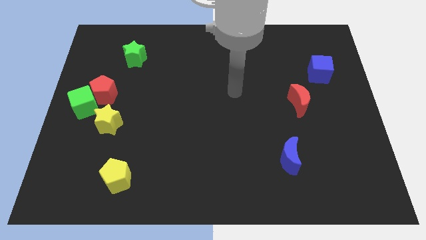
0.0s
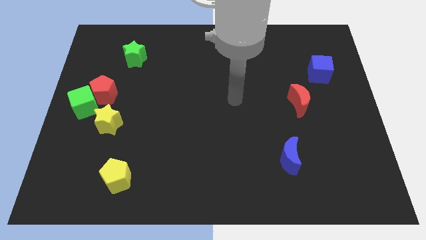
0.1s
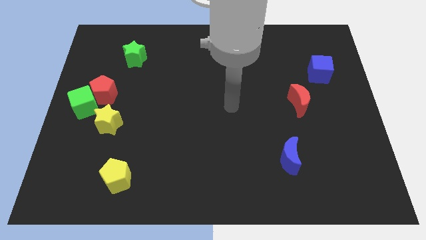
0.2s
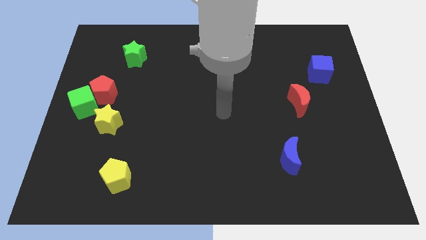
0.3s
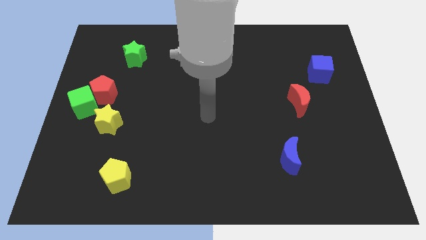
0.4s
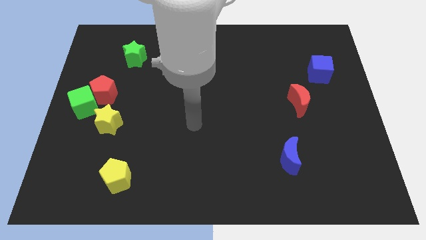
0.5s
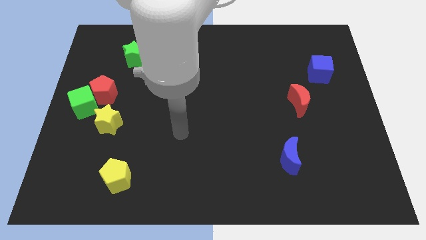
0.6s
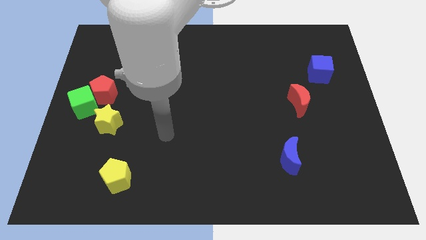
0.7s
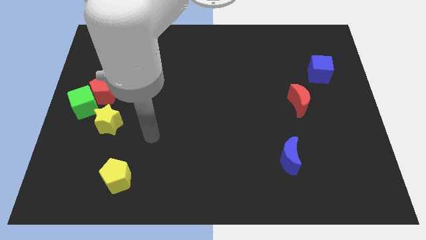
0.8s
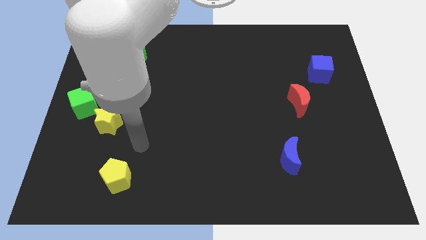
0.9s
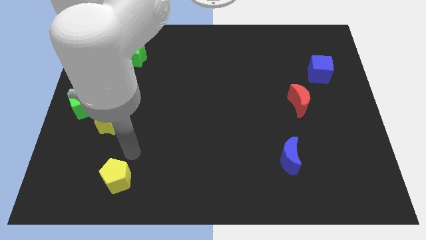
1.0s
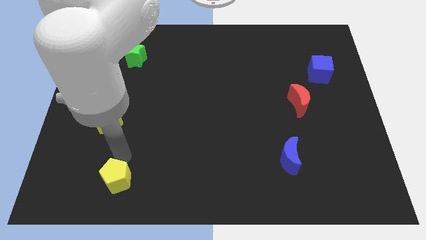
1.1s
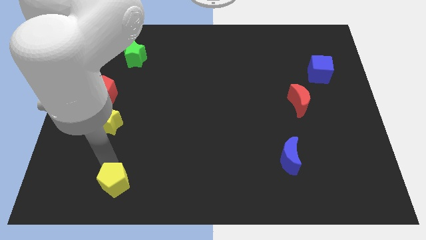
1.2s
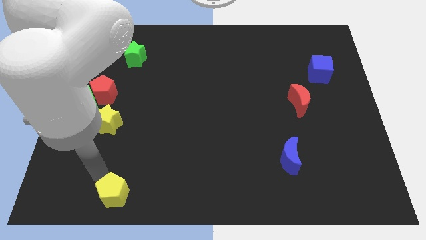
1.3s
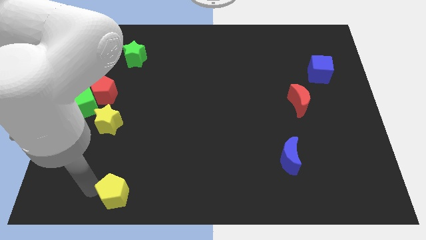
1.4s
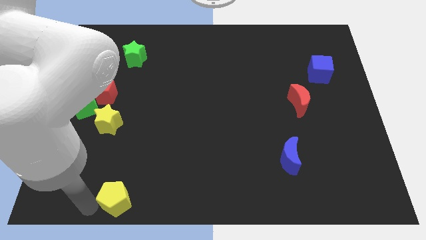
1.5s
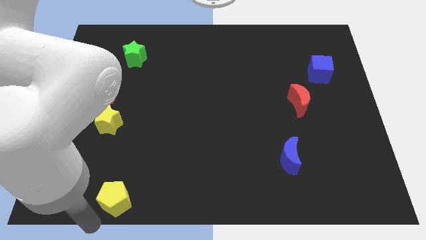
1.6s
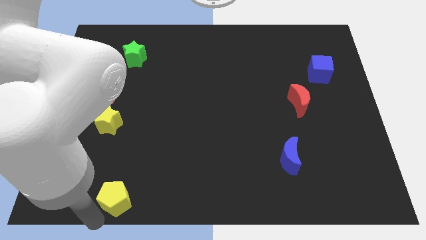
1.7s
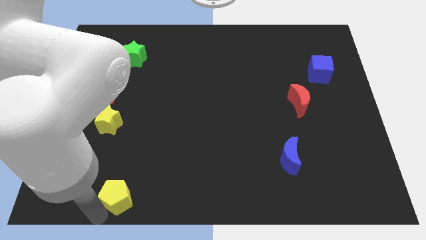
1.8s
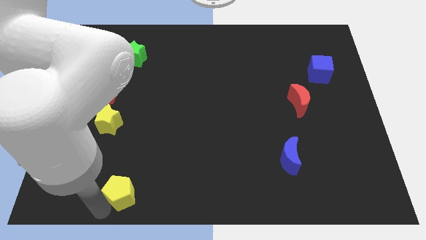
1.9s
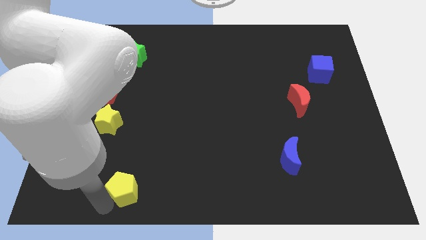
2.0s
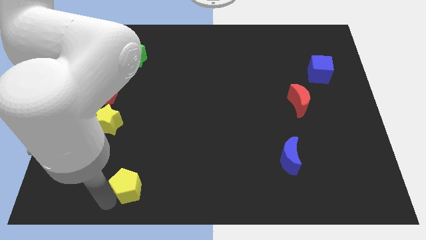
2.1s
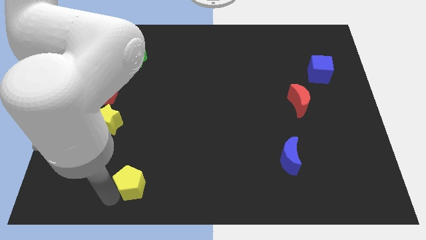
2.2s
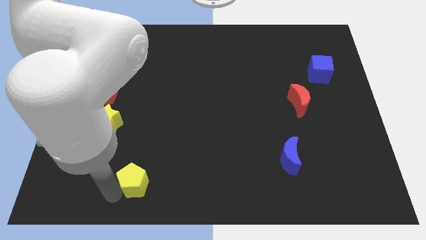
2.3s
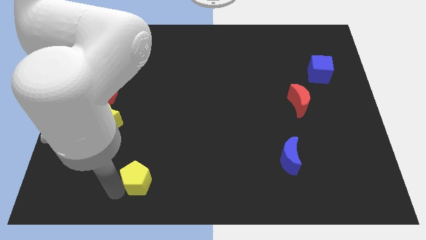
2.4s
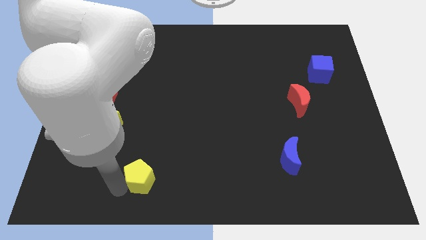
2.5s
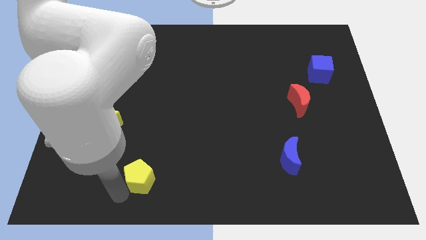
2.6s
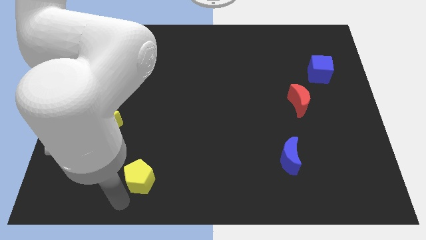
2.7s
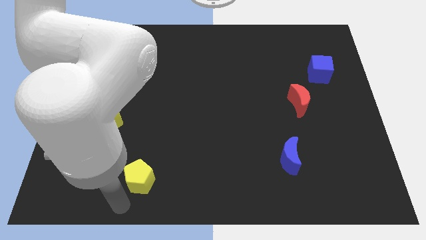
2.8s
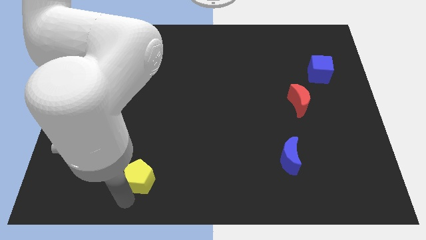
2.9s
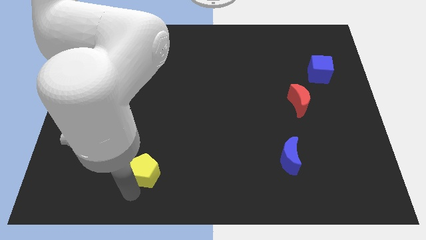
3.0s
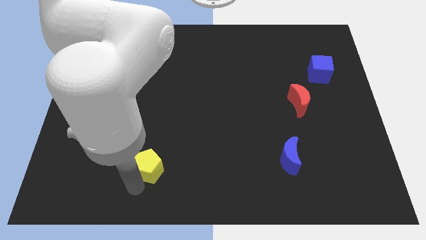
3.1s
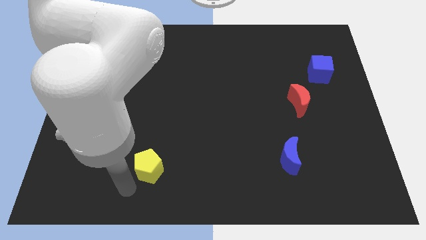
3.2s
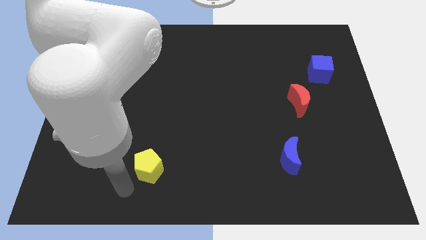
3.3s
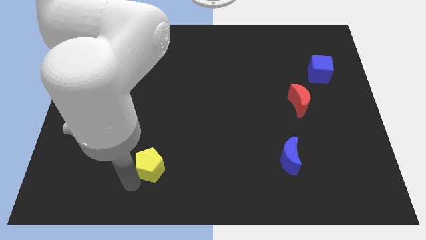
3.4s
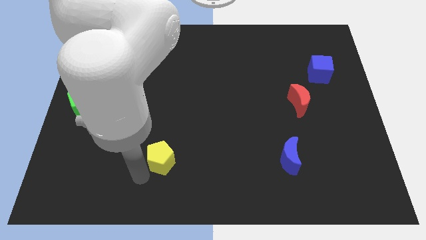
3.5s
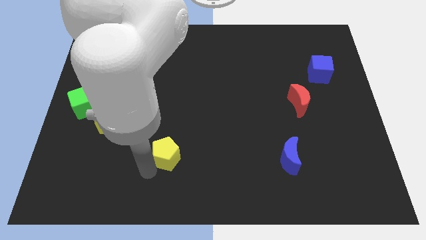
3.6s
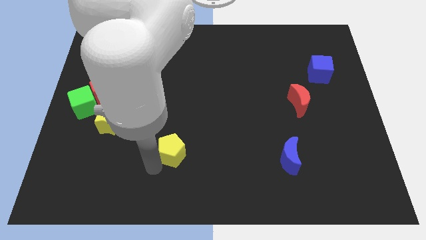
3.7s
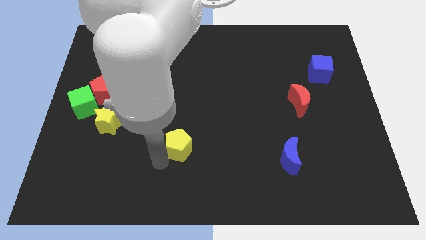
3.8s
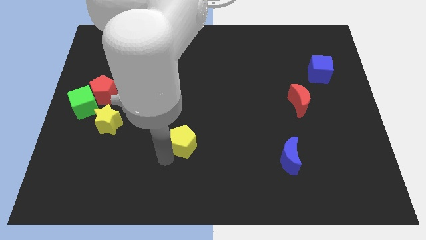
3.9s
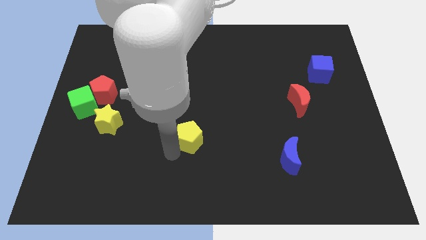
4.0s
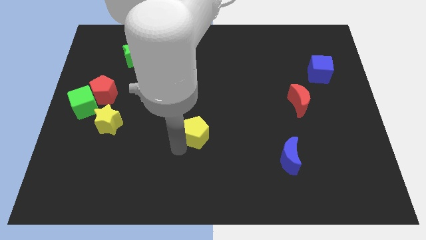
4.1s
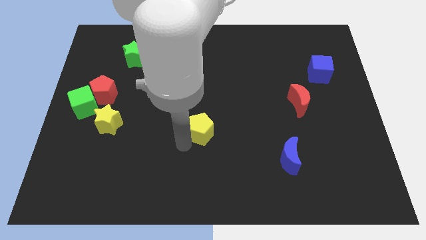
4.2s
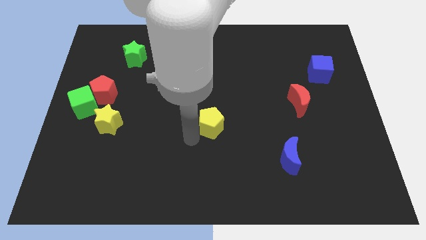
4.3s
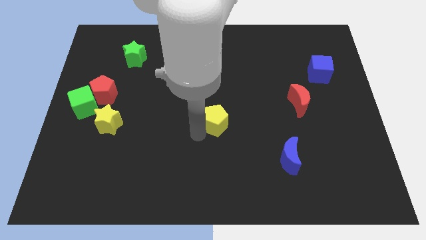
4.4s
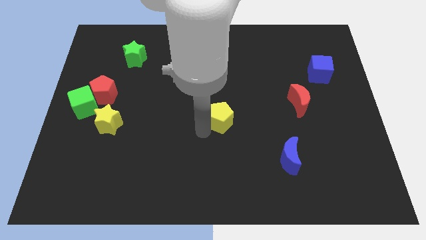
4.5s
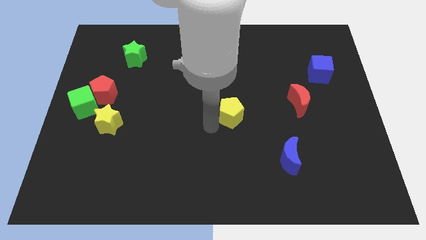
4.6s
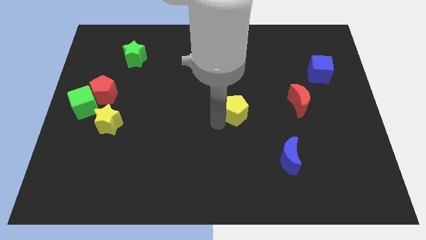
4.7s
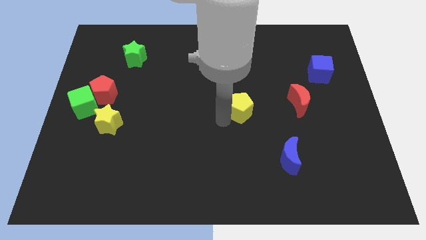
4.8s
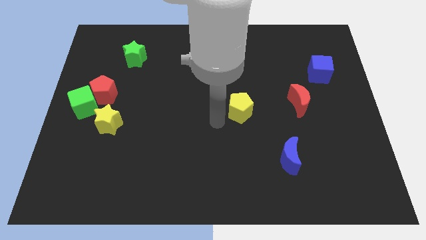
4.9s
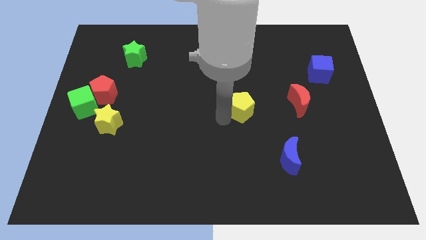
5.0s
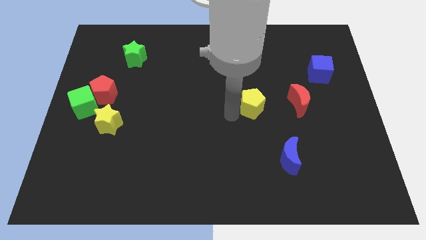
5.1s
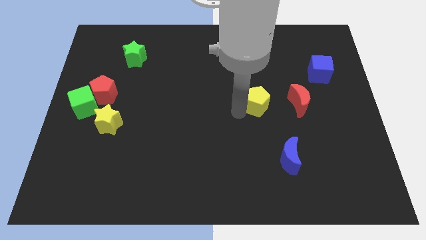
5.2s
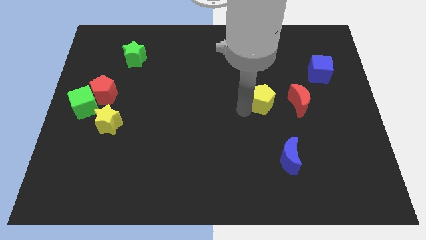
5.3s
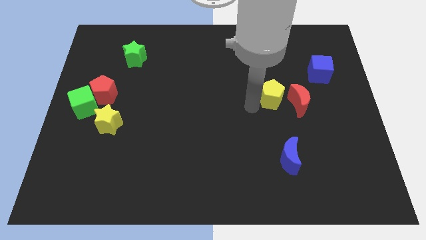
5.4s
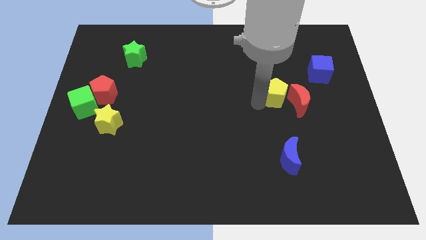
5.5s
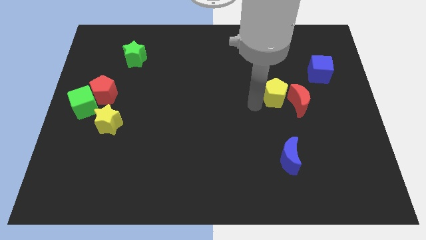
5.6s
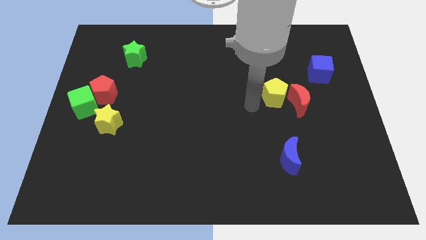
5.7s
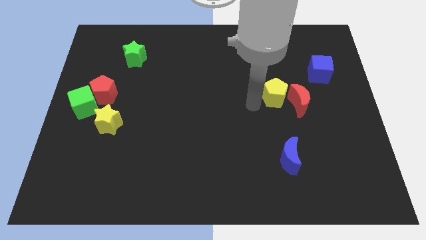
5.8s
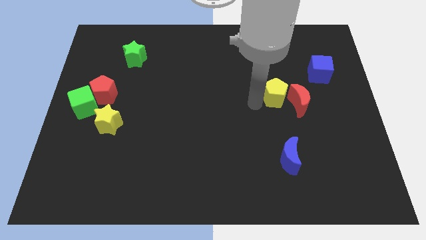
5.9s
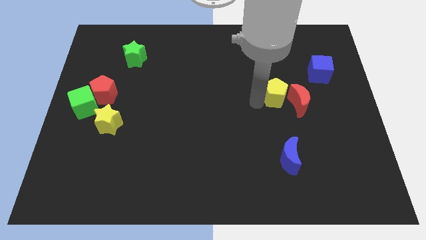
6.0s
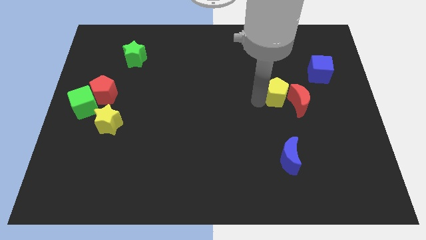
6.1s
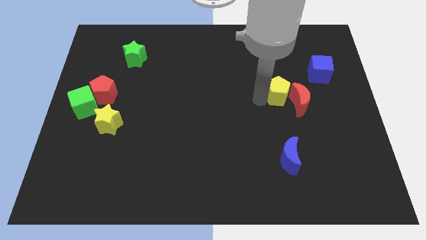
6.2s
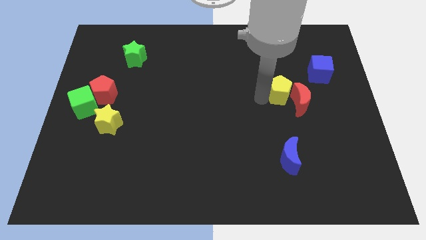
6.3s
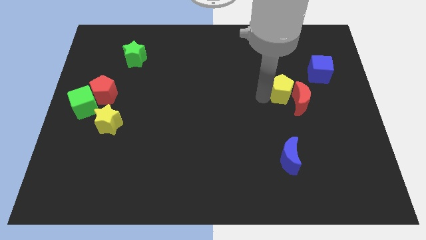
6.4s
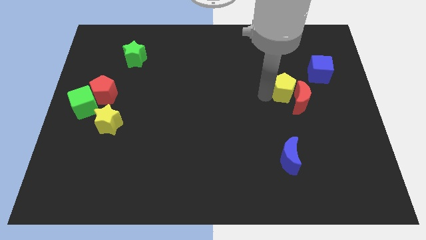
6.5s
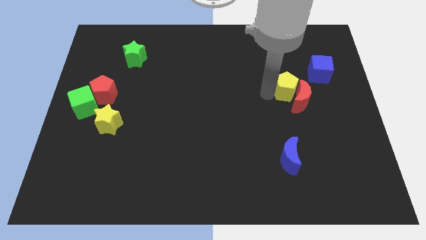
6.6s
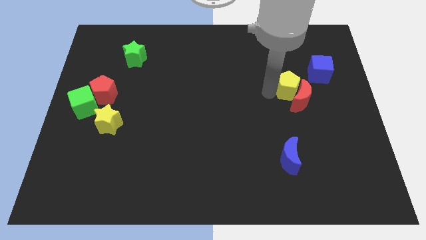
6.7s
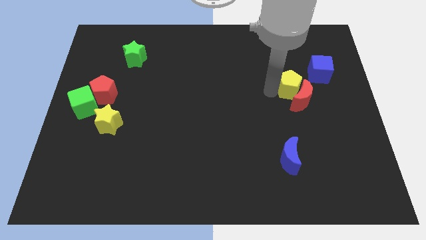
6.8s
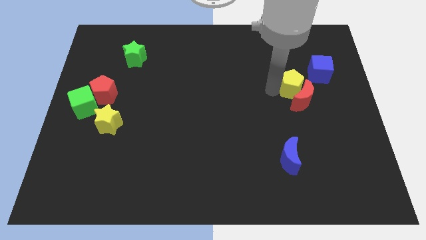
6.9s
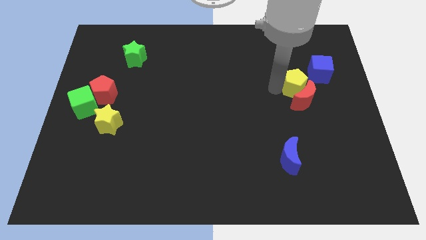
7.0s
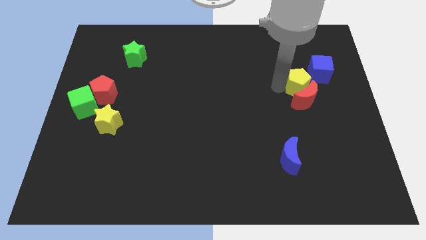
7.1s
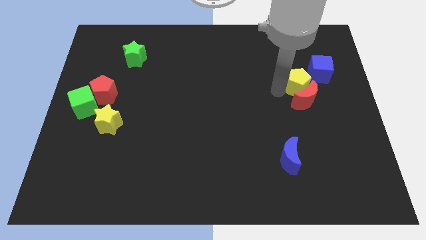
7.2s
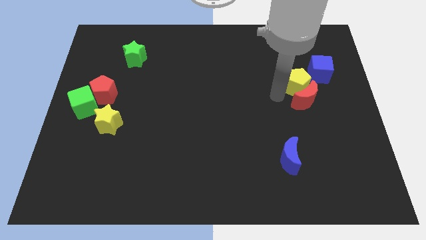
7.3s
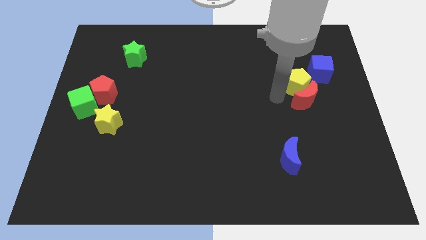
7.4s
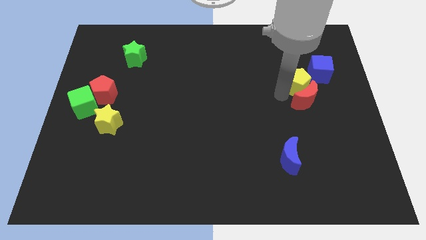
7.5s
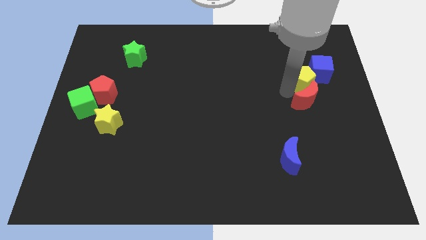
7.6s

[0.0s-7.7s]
push the yellow pentagon close to the blue cube

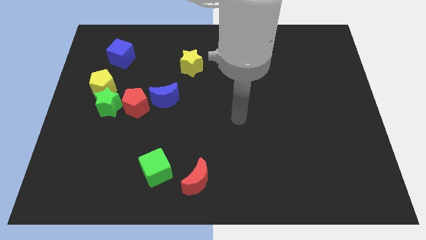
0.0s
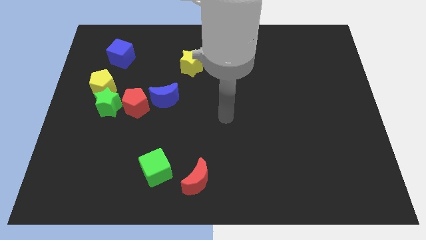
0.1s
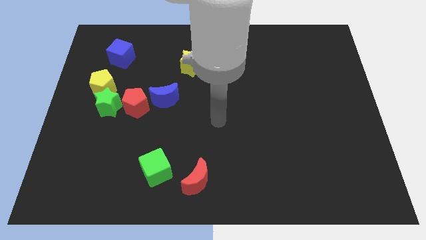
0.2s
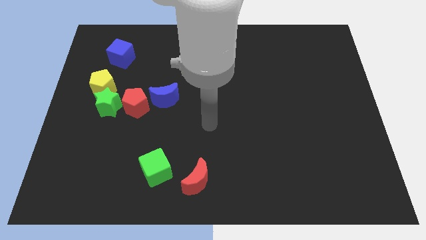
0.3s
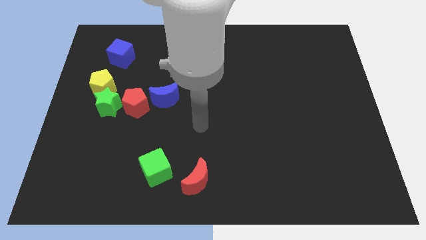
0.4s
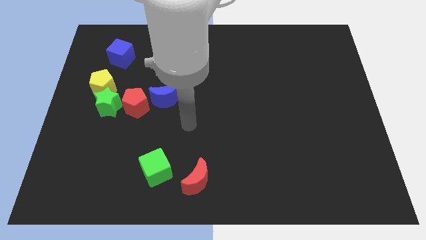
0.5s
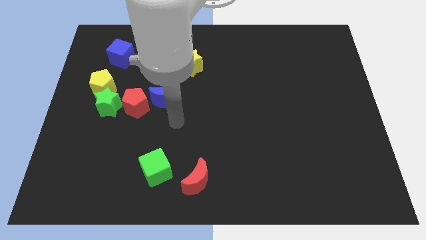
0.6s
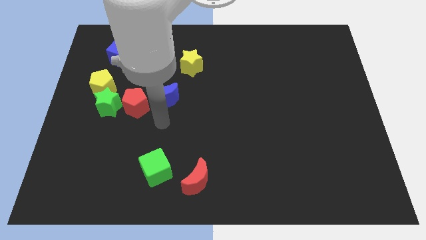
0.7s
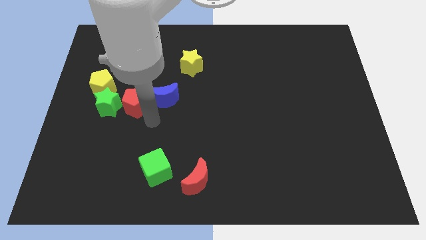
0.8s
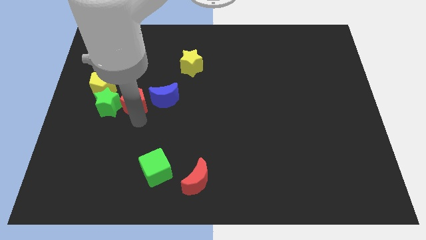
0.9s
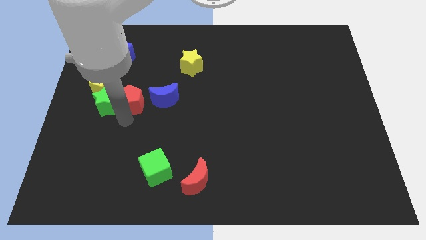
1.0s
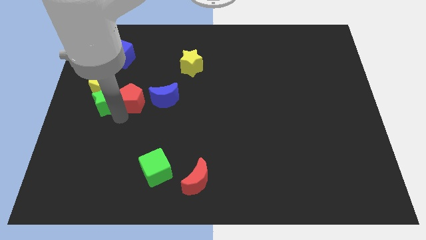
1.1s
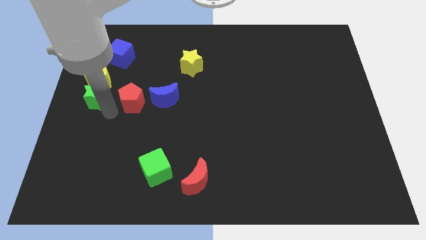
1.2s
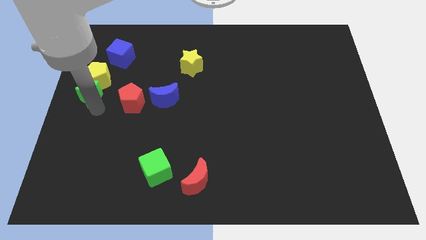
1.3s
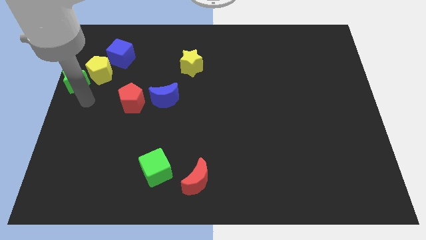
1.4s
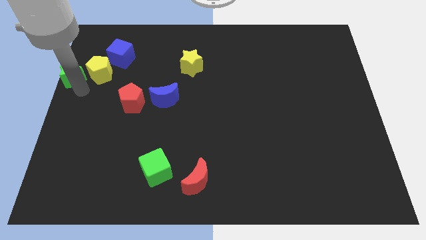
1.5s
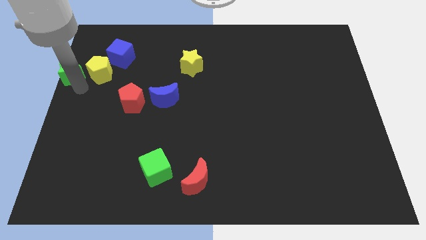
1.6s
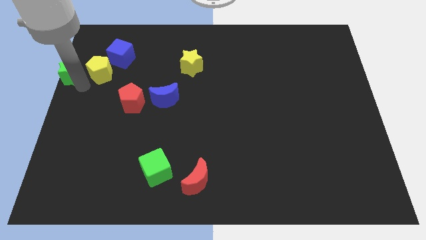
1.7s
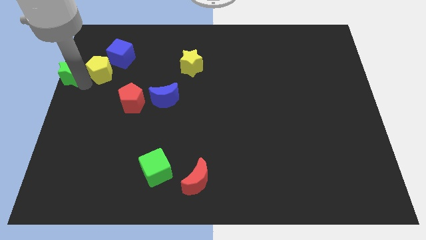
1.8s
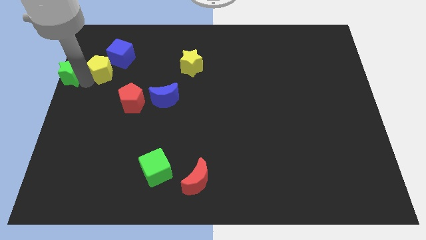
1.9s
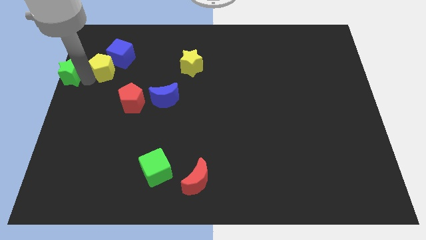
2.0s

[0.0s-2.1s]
put the yellow pentagon next to the blue cube
